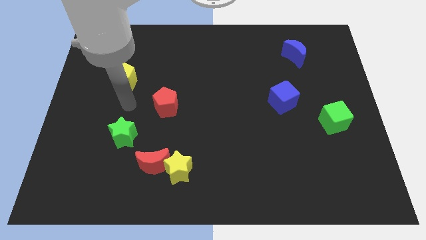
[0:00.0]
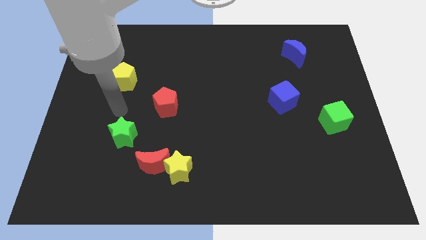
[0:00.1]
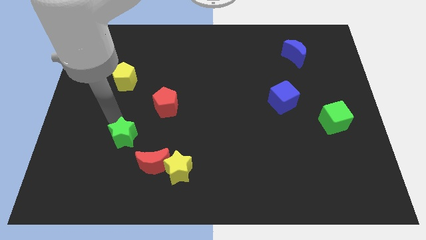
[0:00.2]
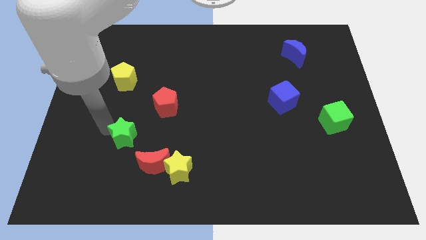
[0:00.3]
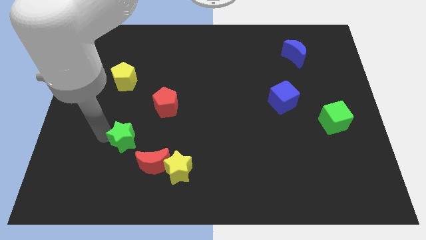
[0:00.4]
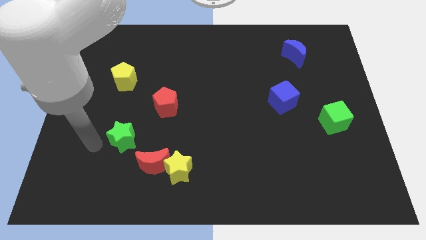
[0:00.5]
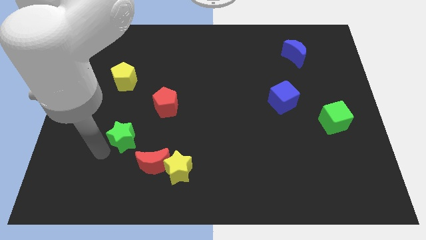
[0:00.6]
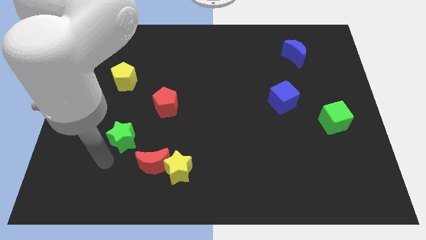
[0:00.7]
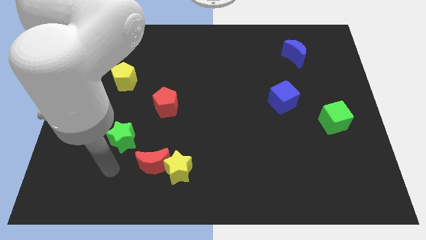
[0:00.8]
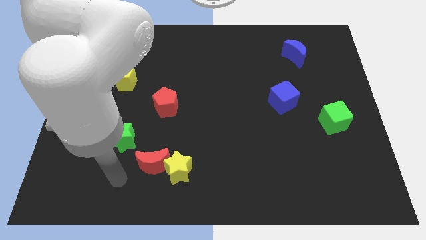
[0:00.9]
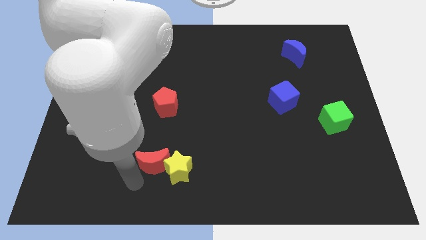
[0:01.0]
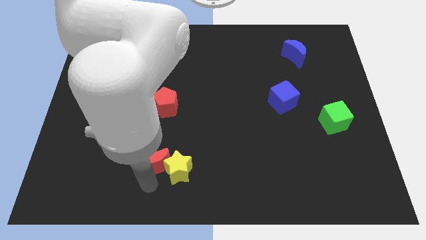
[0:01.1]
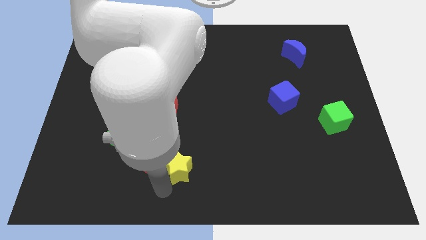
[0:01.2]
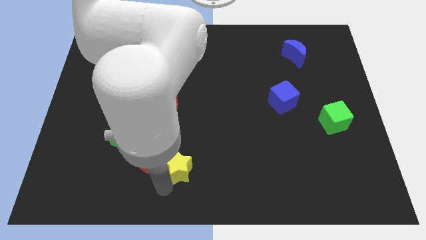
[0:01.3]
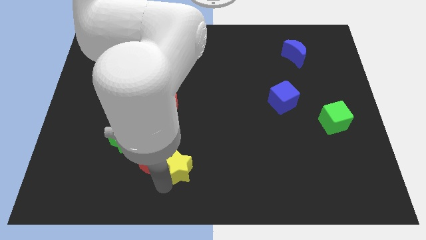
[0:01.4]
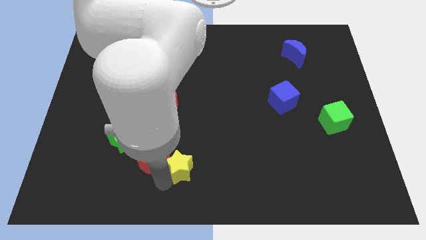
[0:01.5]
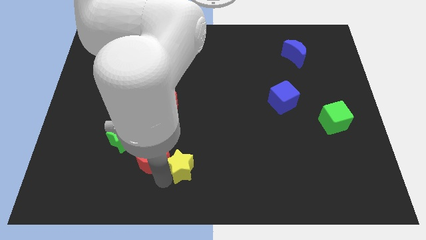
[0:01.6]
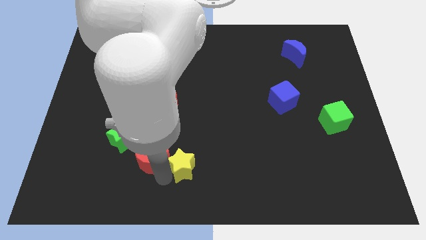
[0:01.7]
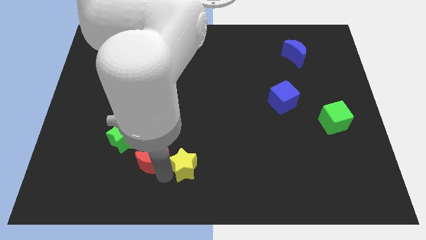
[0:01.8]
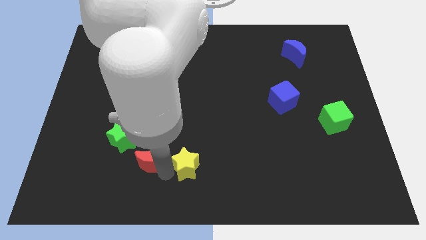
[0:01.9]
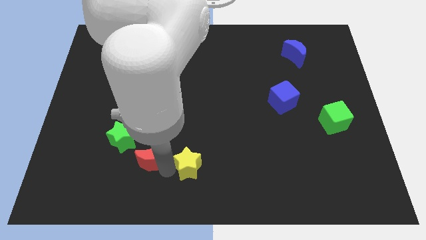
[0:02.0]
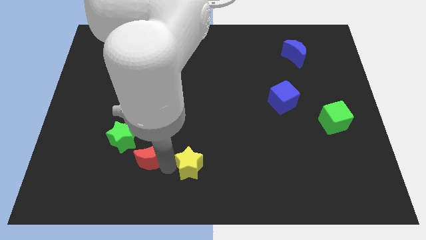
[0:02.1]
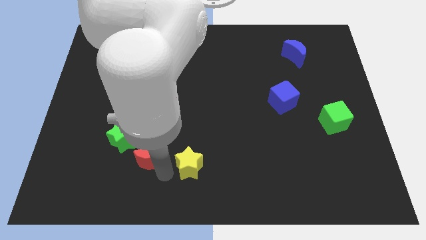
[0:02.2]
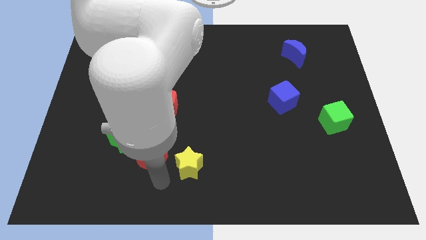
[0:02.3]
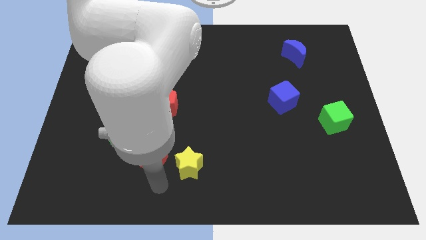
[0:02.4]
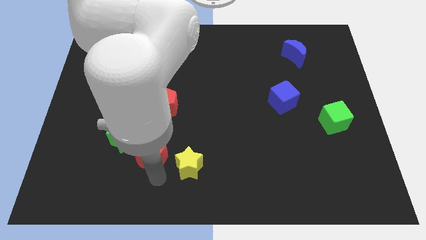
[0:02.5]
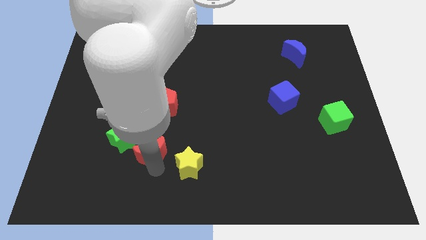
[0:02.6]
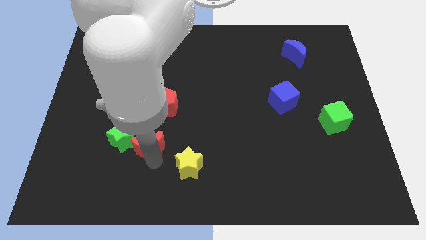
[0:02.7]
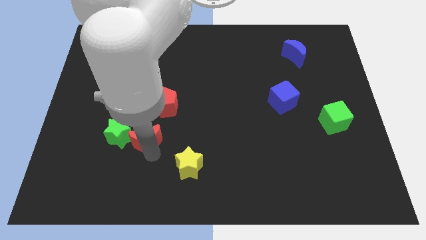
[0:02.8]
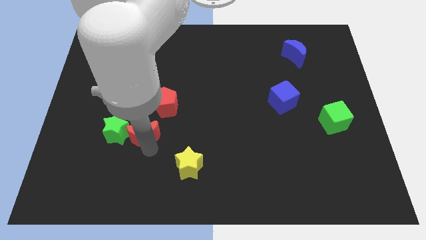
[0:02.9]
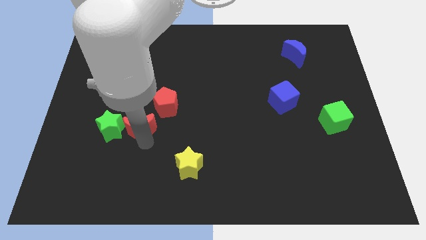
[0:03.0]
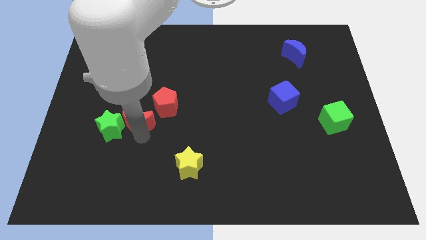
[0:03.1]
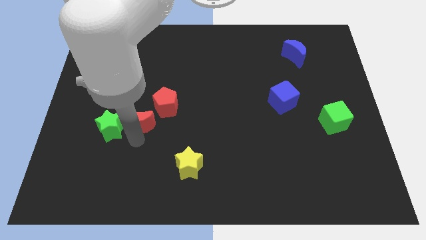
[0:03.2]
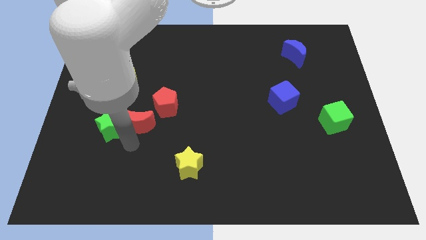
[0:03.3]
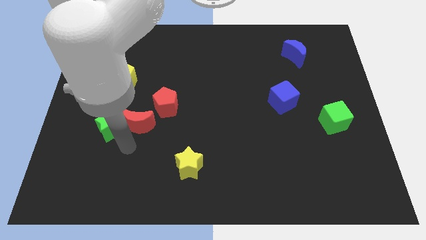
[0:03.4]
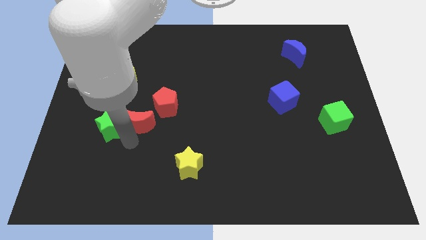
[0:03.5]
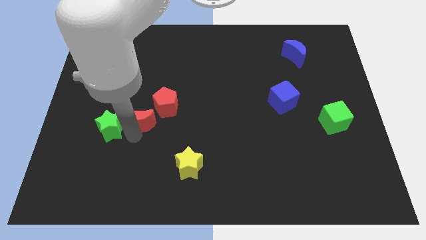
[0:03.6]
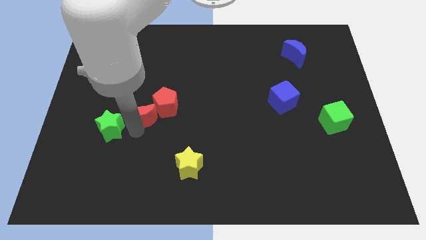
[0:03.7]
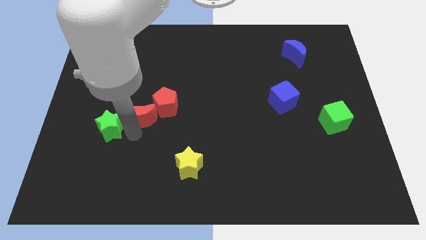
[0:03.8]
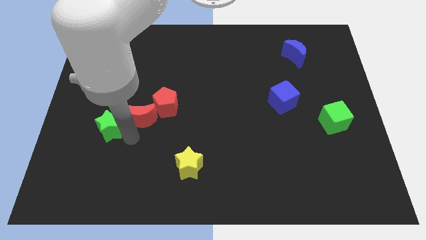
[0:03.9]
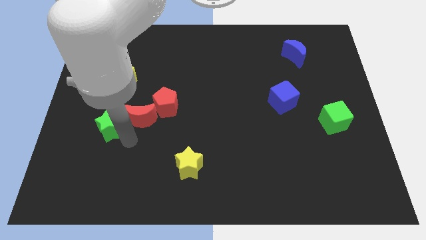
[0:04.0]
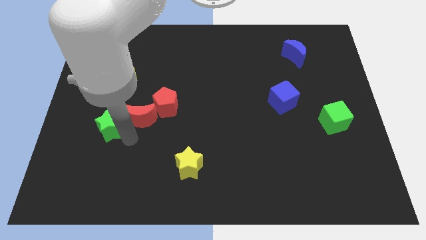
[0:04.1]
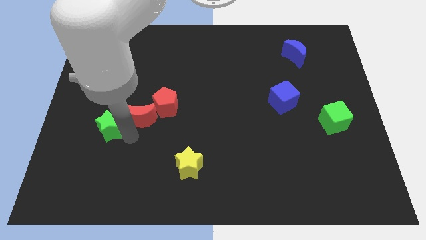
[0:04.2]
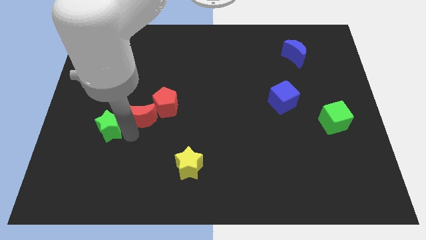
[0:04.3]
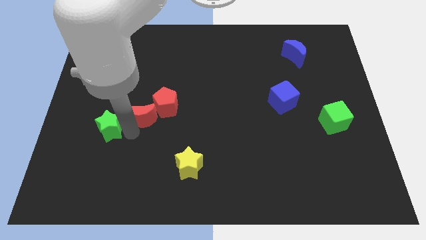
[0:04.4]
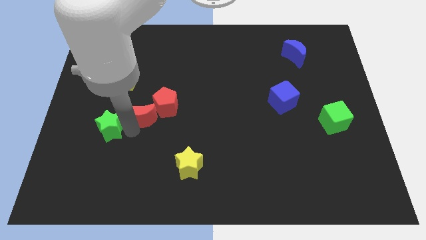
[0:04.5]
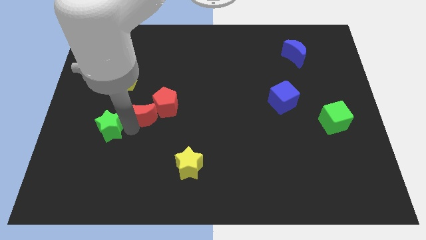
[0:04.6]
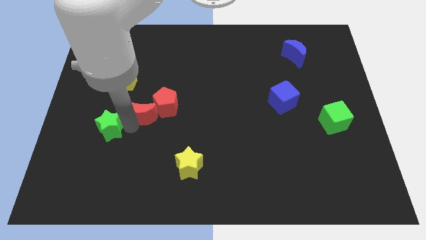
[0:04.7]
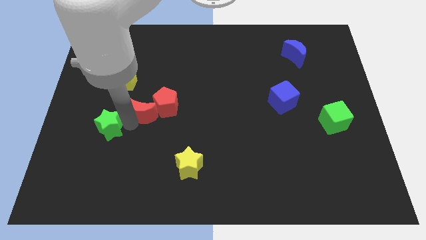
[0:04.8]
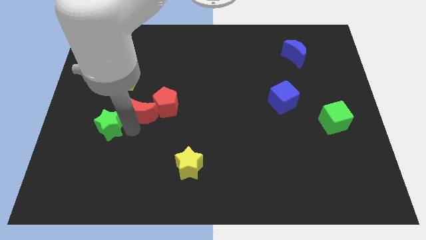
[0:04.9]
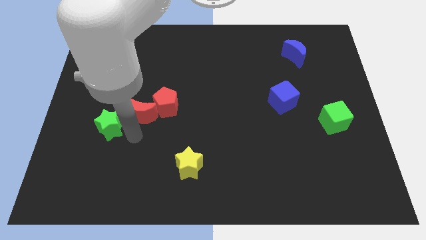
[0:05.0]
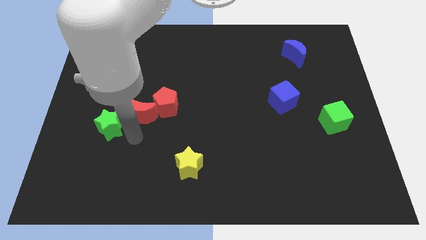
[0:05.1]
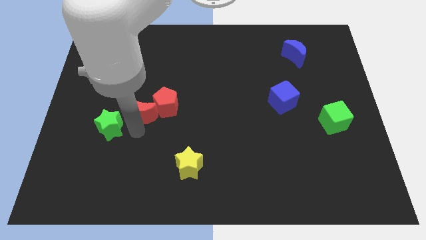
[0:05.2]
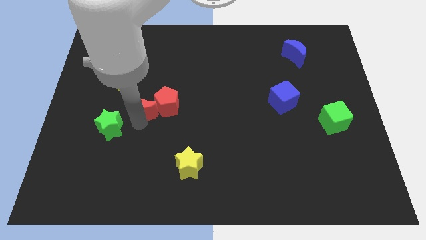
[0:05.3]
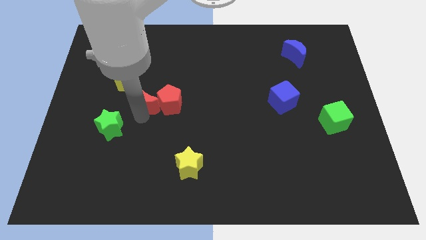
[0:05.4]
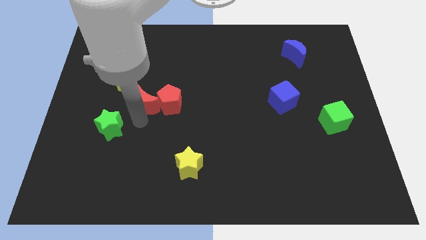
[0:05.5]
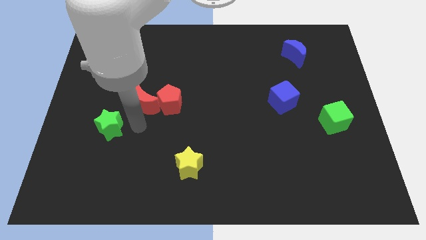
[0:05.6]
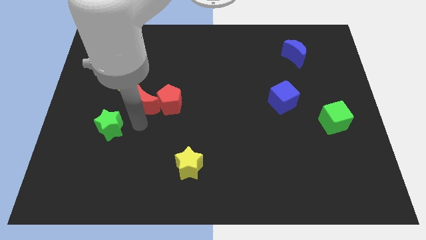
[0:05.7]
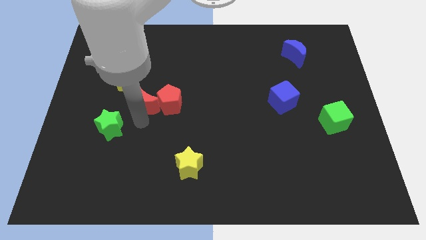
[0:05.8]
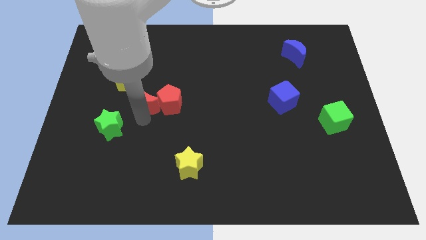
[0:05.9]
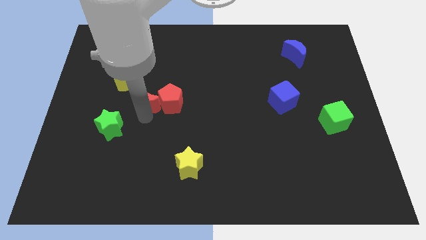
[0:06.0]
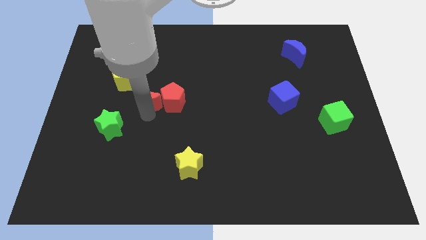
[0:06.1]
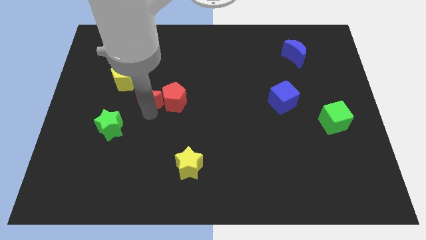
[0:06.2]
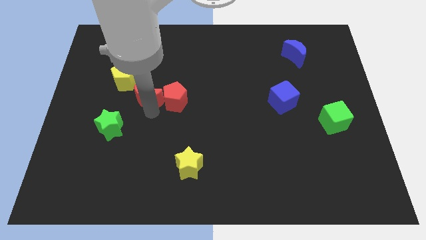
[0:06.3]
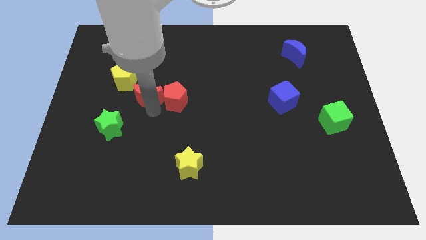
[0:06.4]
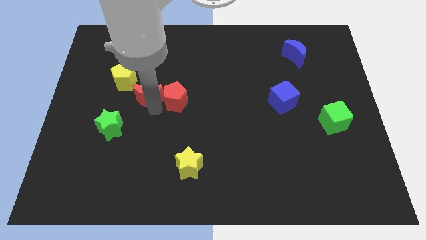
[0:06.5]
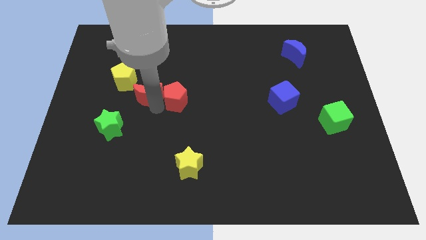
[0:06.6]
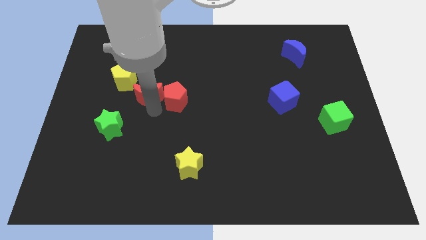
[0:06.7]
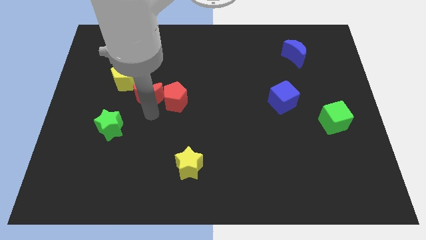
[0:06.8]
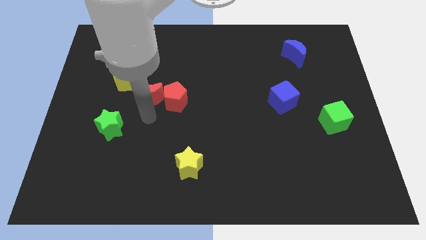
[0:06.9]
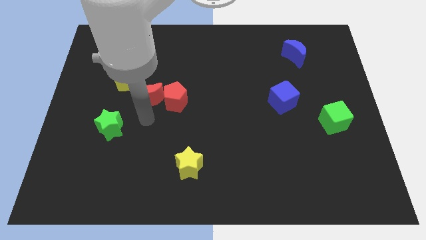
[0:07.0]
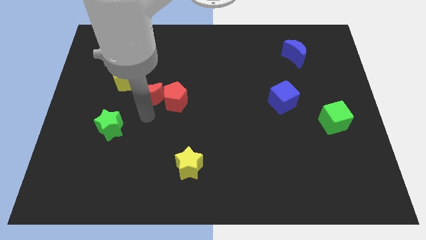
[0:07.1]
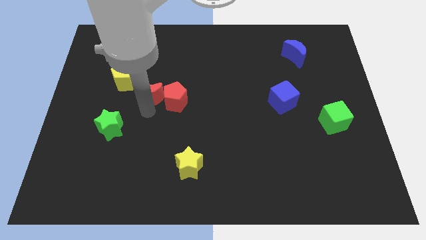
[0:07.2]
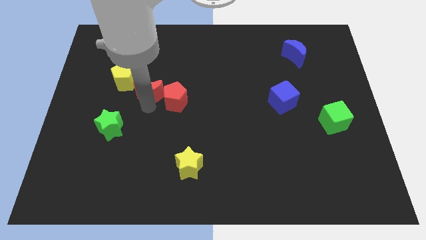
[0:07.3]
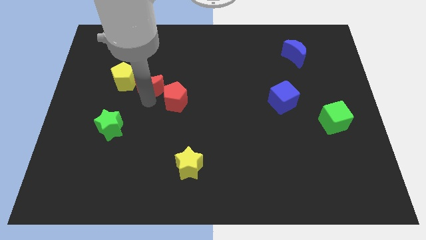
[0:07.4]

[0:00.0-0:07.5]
move the red moon up

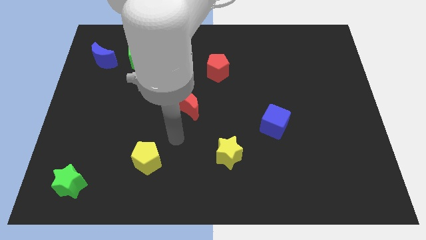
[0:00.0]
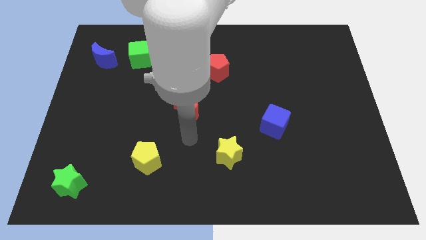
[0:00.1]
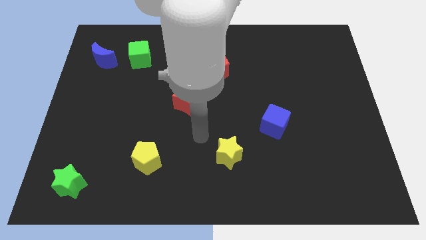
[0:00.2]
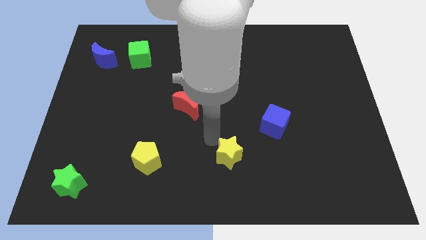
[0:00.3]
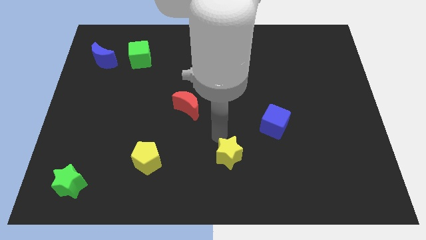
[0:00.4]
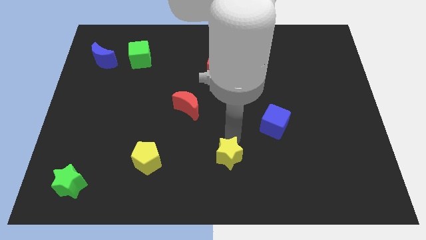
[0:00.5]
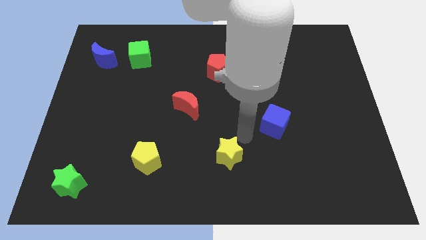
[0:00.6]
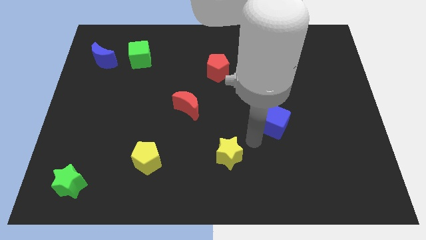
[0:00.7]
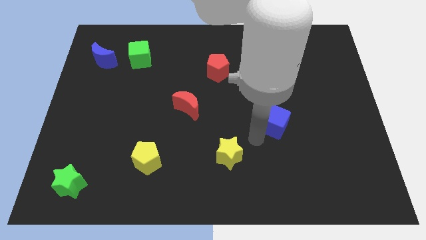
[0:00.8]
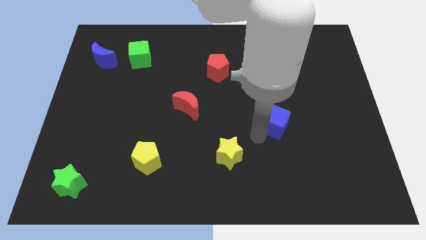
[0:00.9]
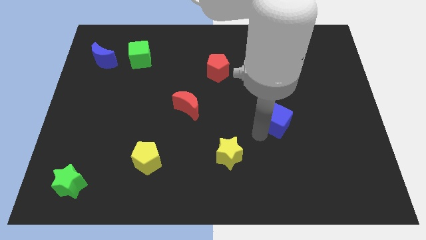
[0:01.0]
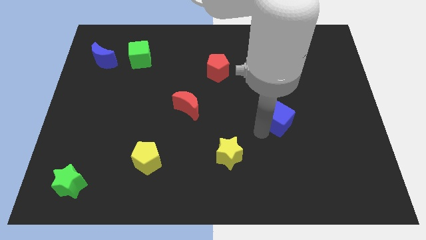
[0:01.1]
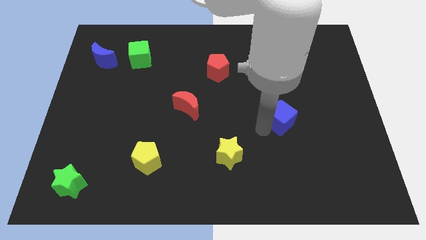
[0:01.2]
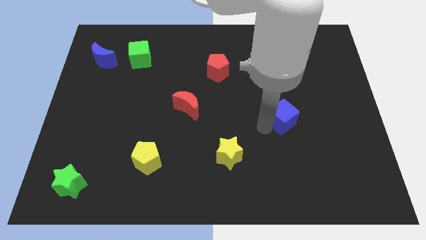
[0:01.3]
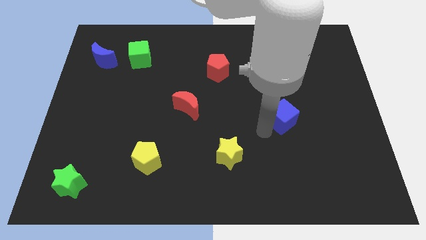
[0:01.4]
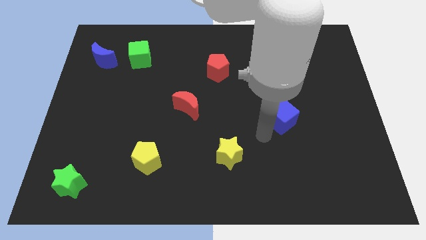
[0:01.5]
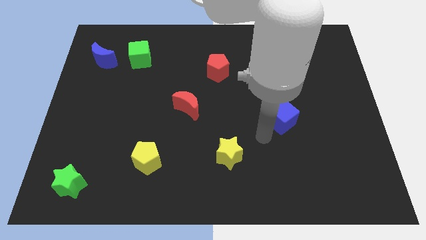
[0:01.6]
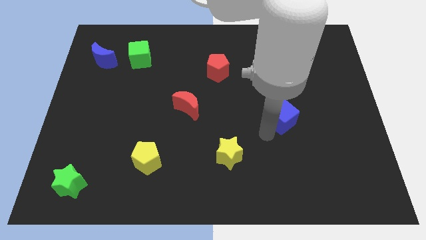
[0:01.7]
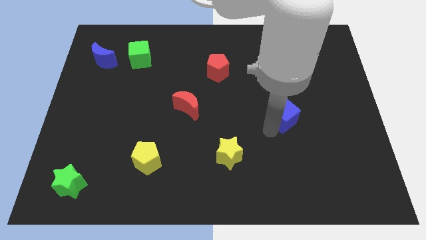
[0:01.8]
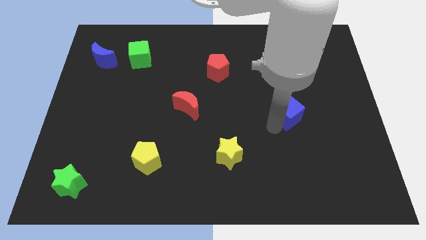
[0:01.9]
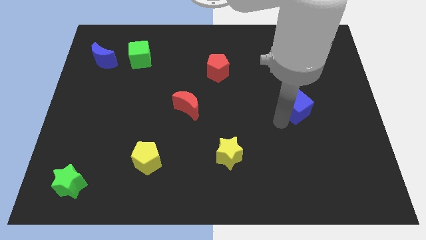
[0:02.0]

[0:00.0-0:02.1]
move the blue cube a little bit up and then to the right
